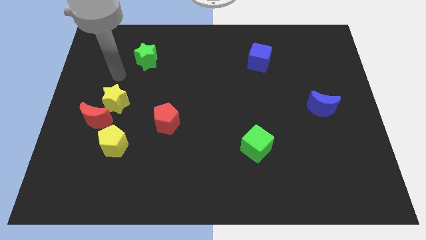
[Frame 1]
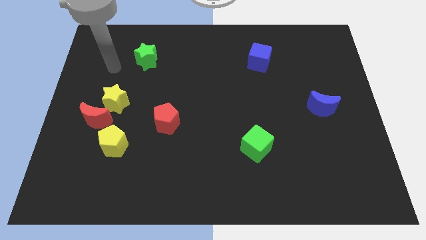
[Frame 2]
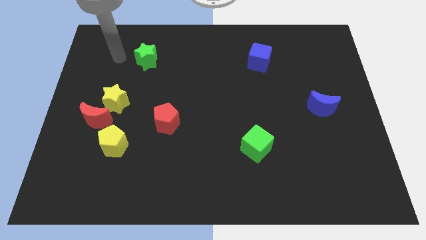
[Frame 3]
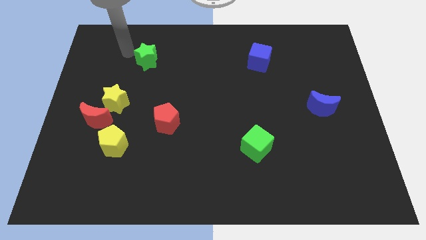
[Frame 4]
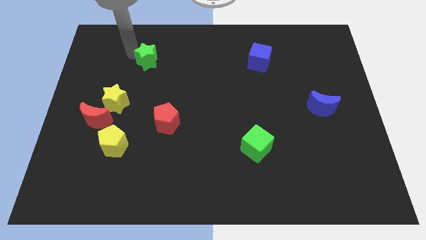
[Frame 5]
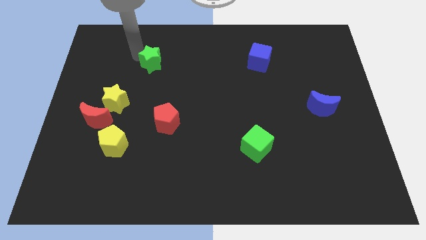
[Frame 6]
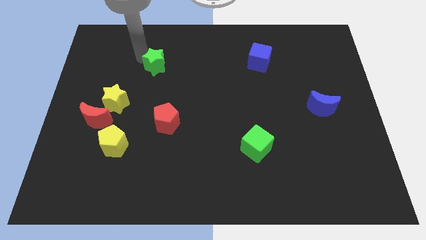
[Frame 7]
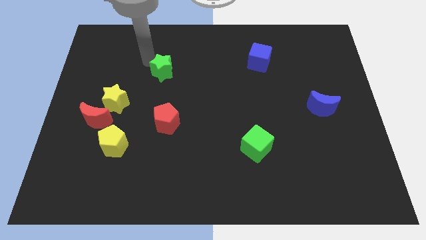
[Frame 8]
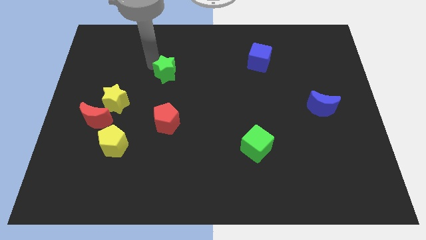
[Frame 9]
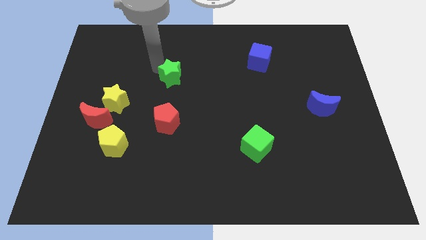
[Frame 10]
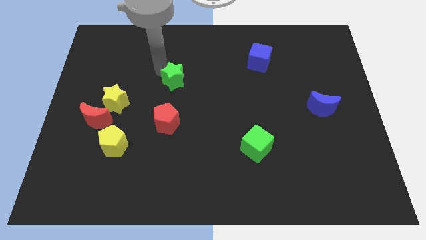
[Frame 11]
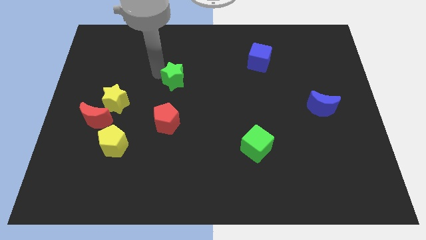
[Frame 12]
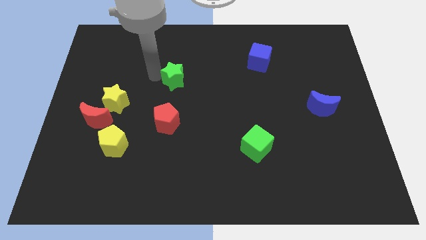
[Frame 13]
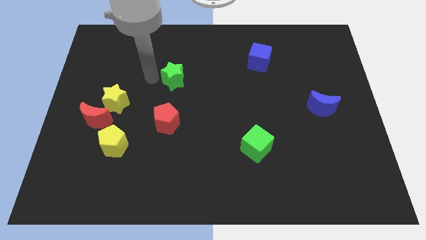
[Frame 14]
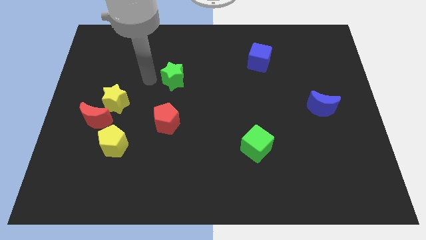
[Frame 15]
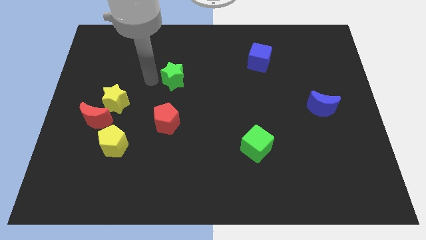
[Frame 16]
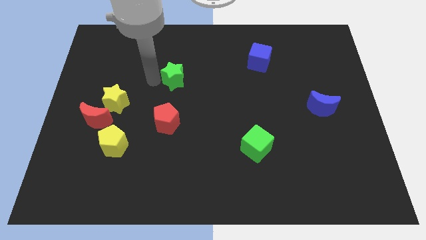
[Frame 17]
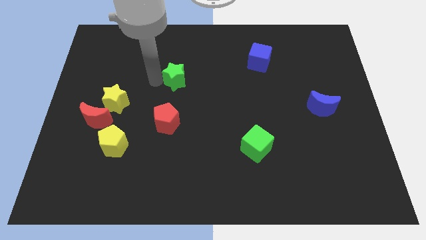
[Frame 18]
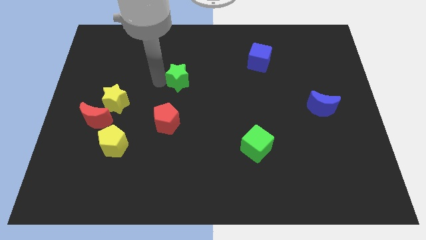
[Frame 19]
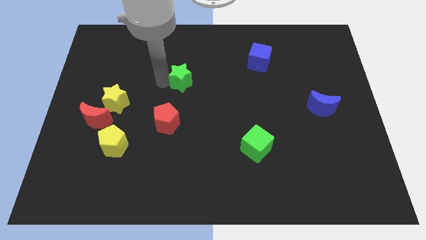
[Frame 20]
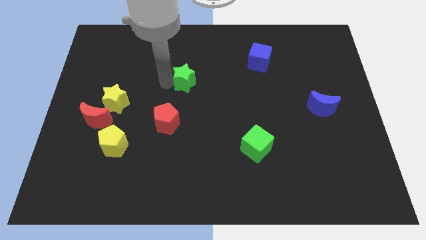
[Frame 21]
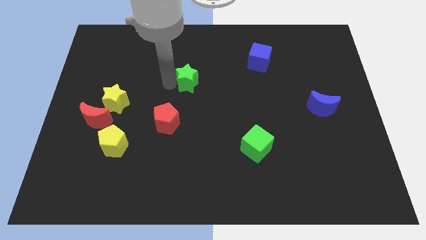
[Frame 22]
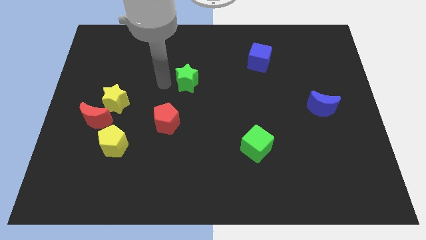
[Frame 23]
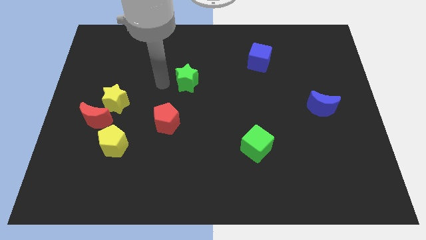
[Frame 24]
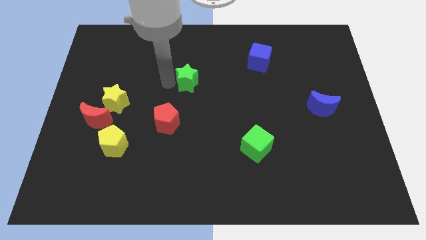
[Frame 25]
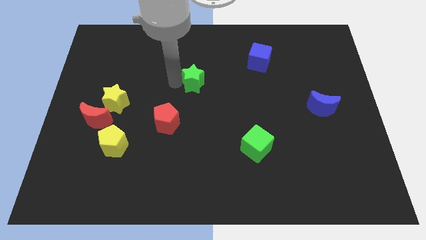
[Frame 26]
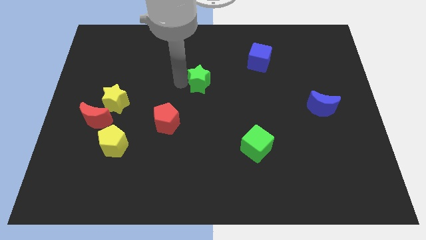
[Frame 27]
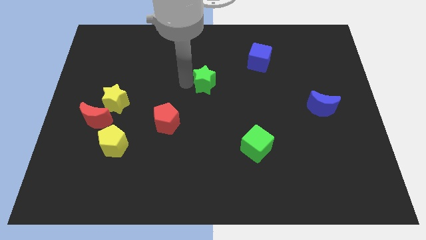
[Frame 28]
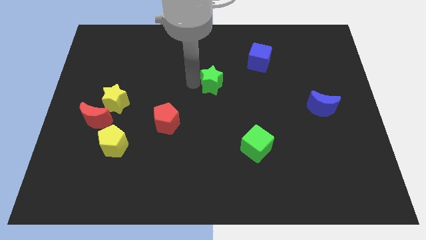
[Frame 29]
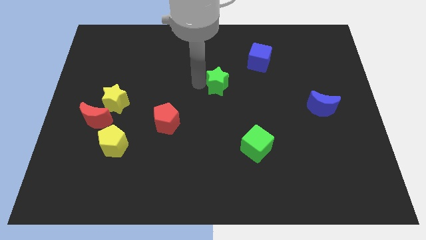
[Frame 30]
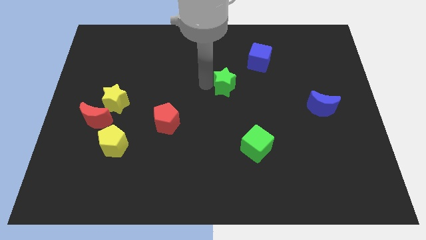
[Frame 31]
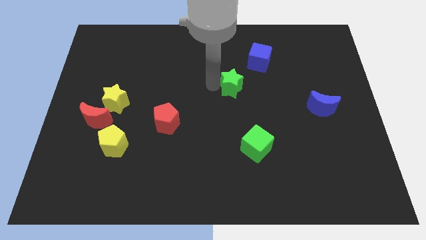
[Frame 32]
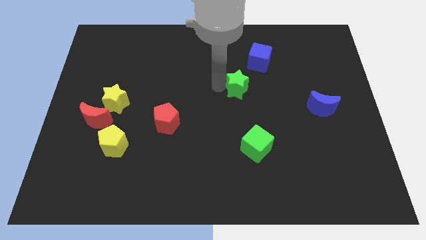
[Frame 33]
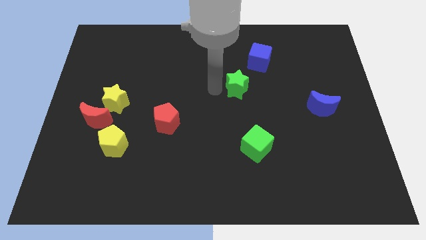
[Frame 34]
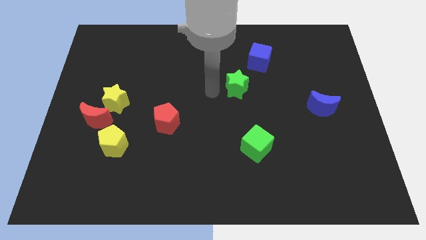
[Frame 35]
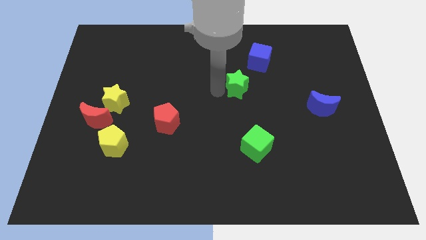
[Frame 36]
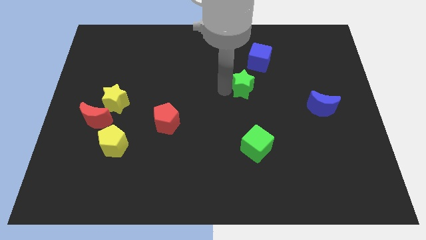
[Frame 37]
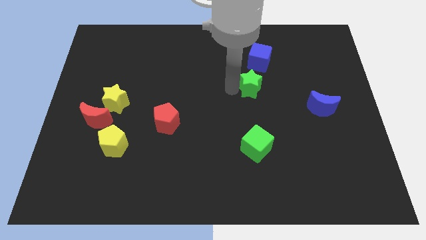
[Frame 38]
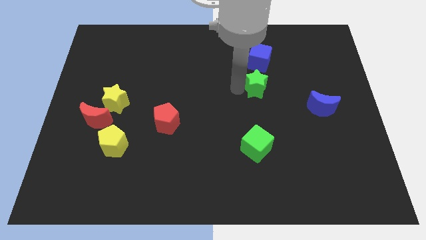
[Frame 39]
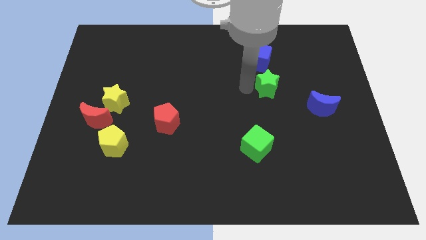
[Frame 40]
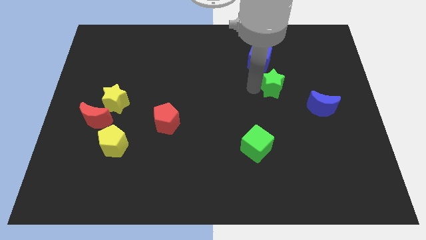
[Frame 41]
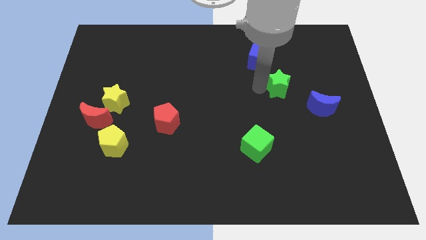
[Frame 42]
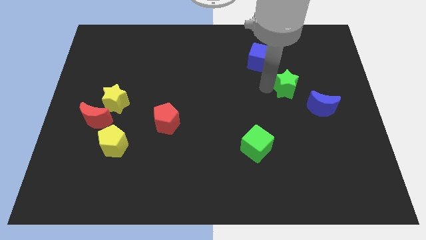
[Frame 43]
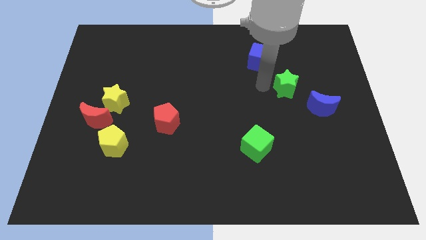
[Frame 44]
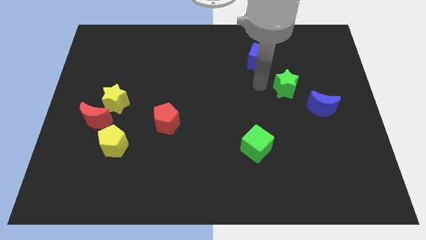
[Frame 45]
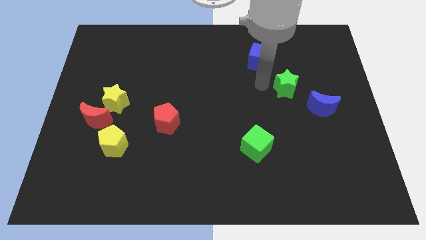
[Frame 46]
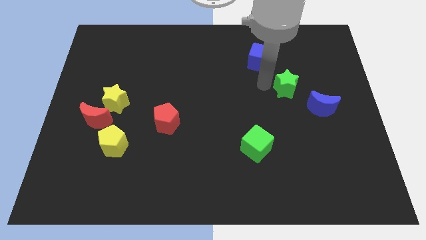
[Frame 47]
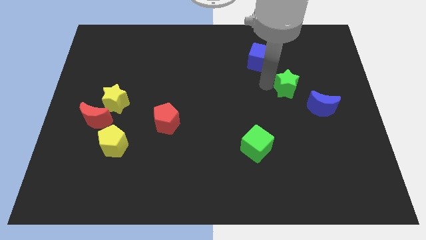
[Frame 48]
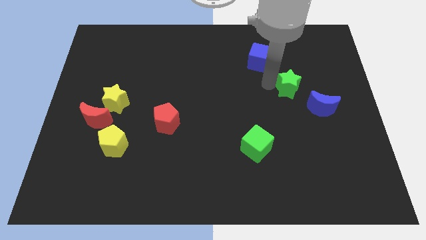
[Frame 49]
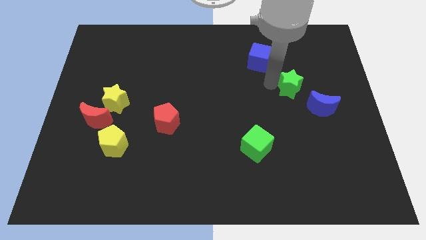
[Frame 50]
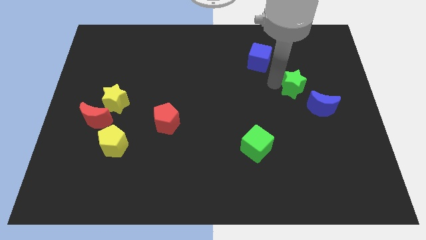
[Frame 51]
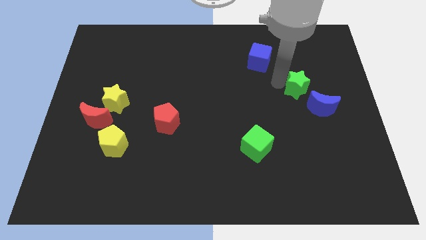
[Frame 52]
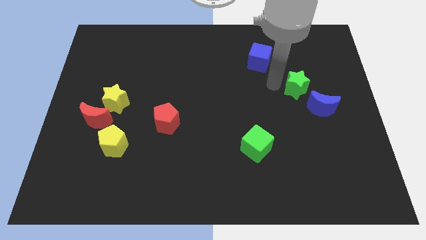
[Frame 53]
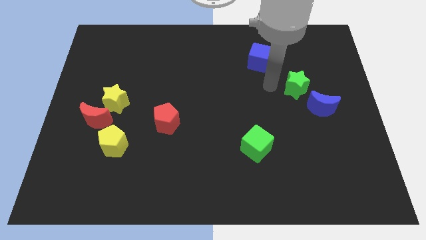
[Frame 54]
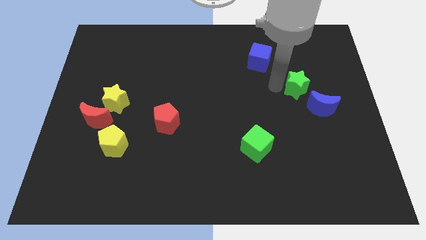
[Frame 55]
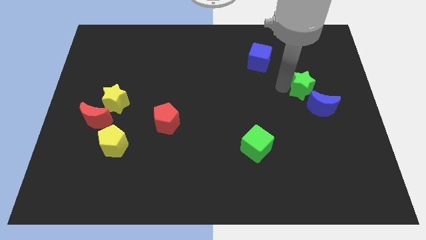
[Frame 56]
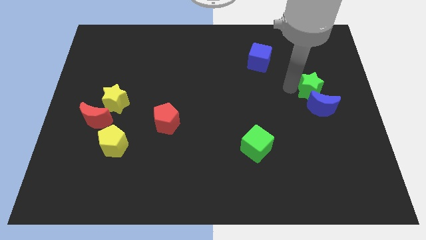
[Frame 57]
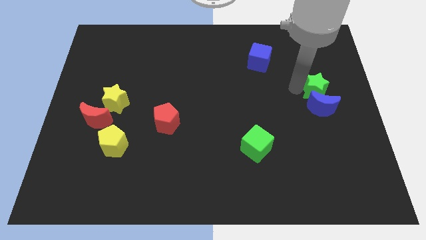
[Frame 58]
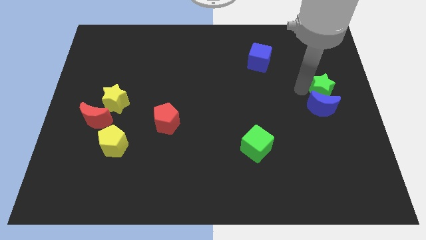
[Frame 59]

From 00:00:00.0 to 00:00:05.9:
move the green star to the right side

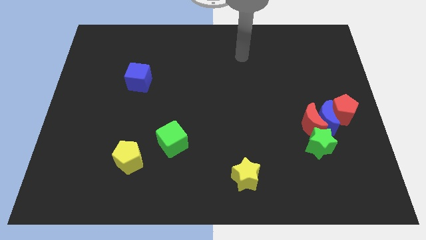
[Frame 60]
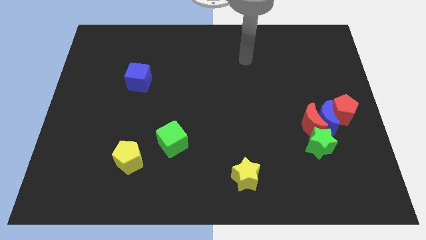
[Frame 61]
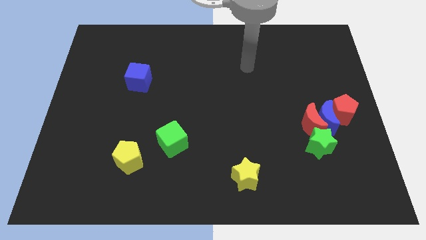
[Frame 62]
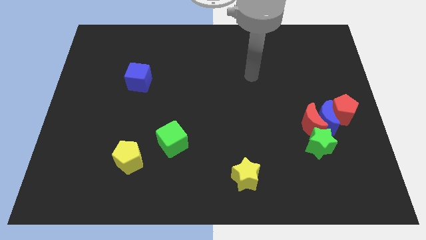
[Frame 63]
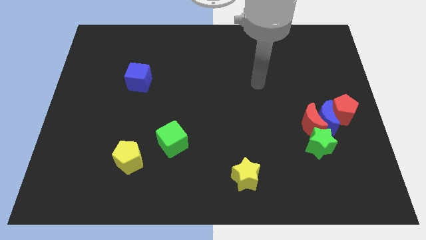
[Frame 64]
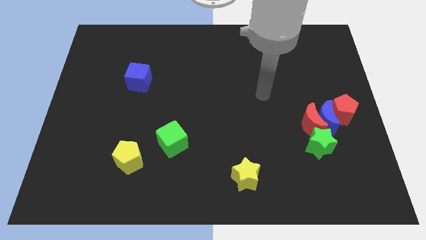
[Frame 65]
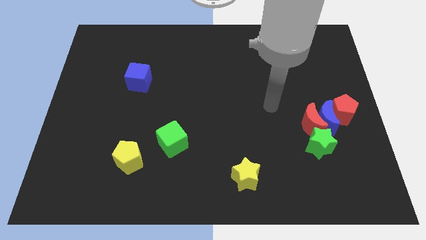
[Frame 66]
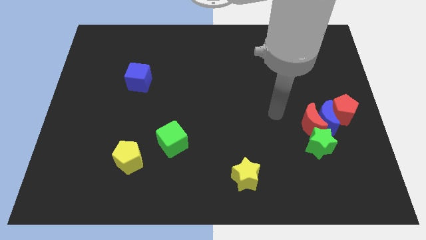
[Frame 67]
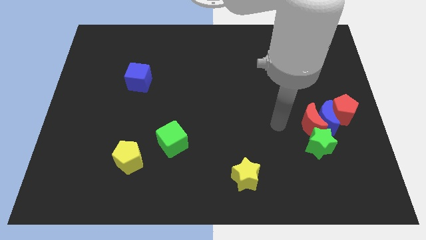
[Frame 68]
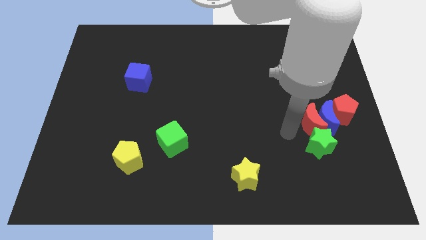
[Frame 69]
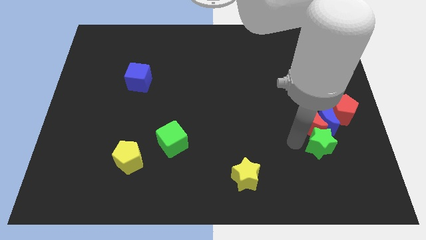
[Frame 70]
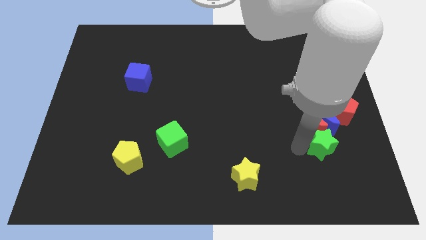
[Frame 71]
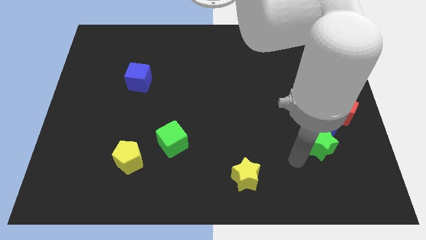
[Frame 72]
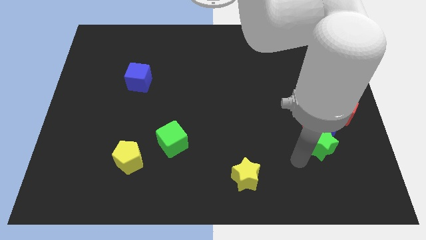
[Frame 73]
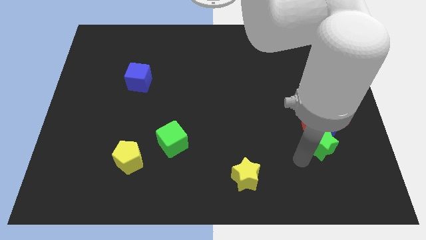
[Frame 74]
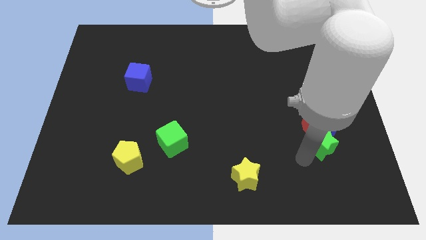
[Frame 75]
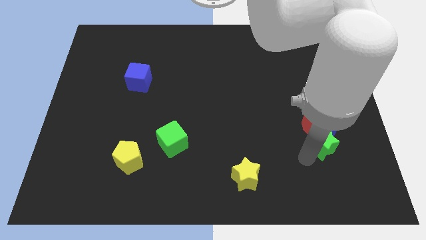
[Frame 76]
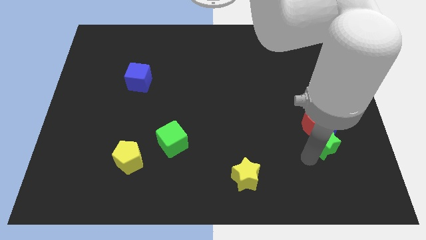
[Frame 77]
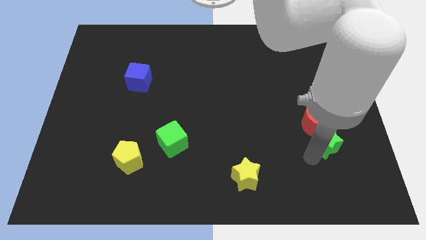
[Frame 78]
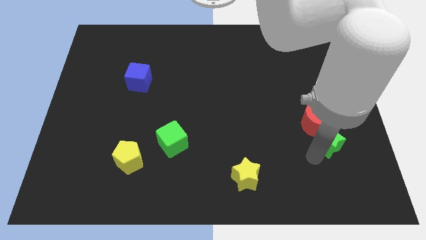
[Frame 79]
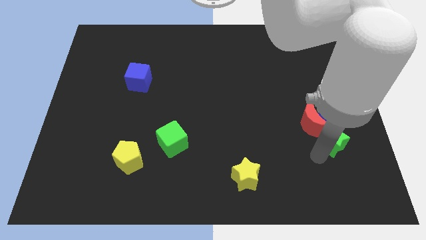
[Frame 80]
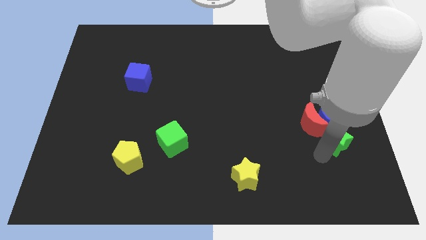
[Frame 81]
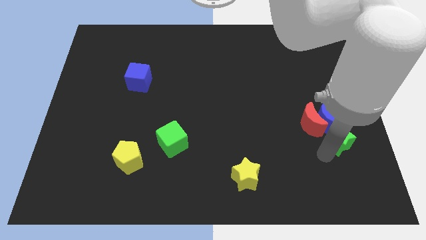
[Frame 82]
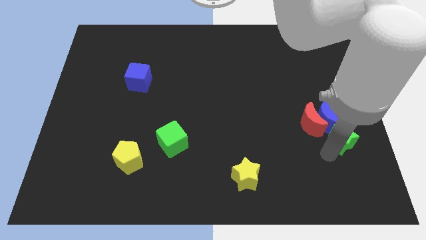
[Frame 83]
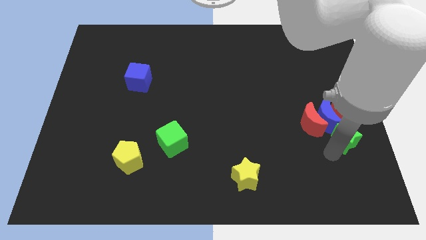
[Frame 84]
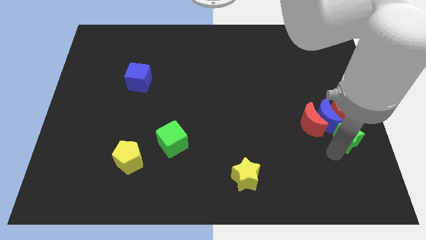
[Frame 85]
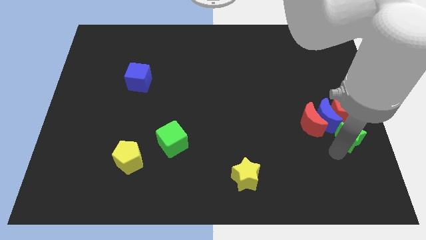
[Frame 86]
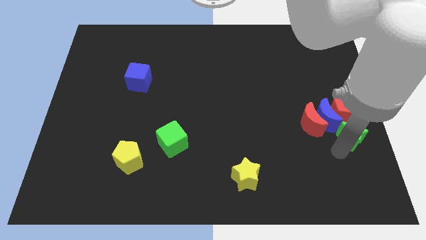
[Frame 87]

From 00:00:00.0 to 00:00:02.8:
push the green star to the center right
